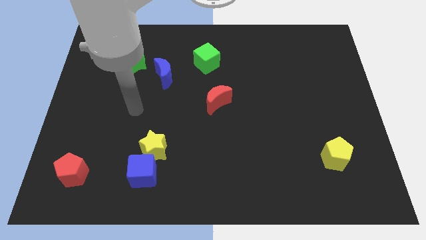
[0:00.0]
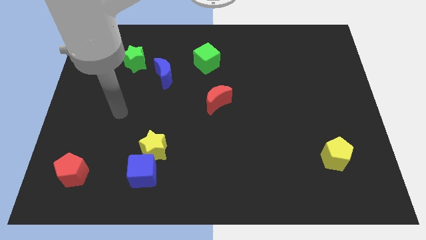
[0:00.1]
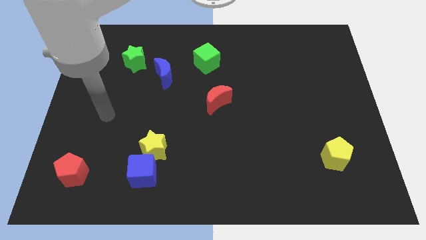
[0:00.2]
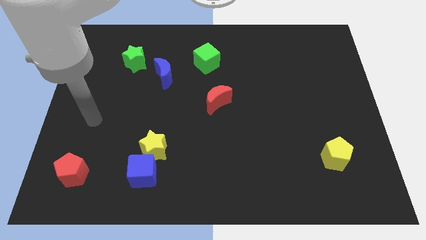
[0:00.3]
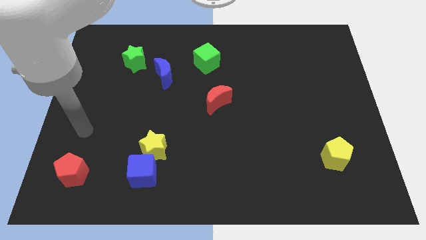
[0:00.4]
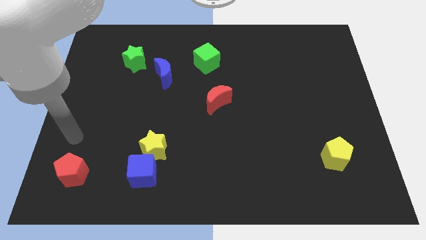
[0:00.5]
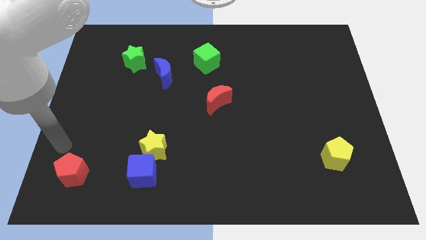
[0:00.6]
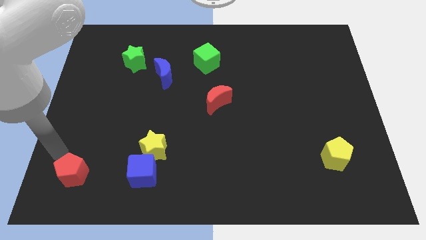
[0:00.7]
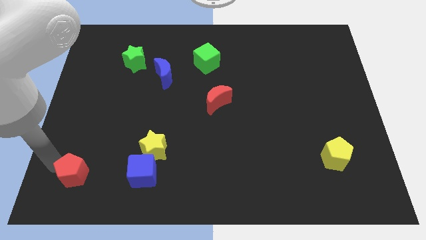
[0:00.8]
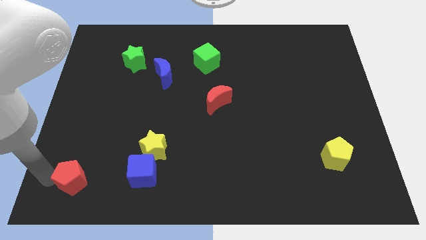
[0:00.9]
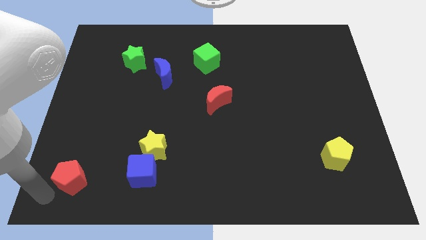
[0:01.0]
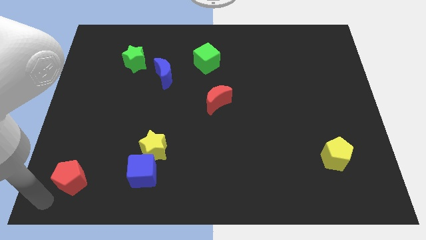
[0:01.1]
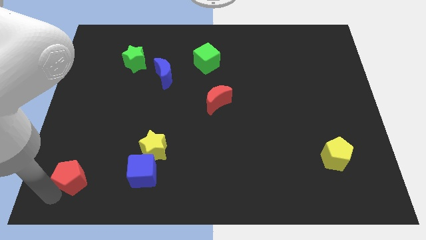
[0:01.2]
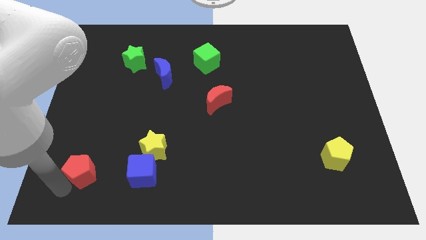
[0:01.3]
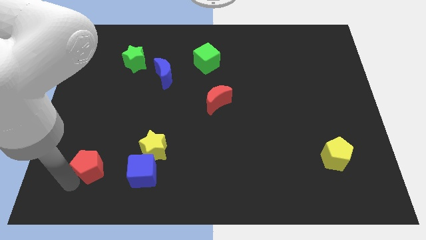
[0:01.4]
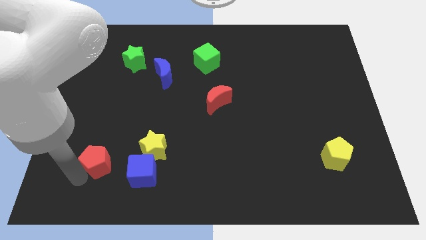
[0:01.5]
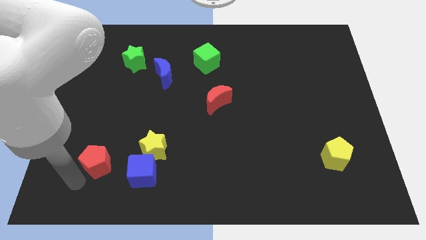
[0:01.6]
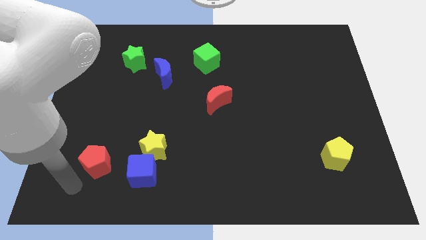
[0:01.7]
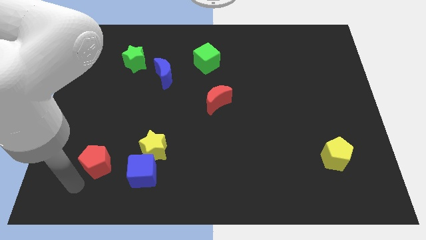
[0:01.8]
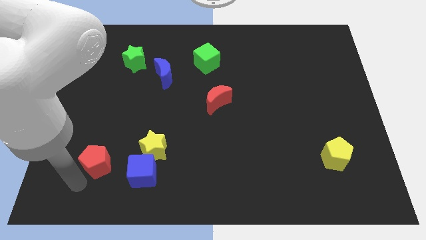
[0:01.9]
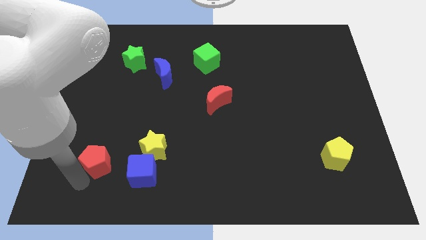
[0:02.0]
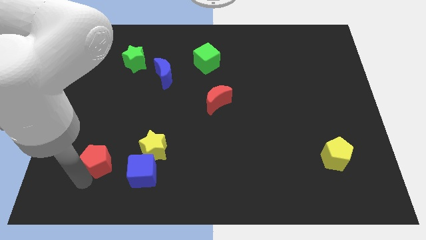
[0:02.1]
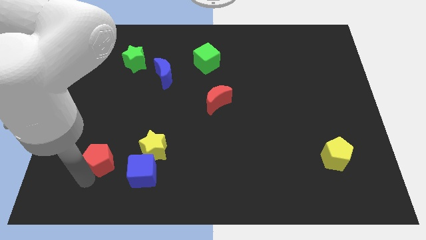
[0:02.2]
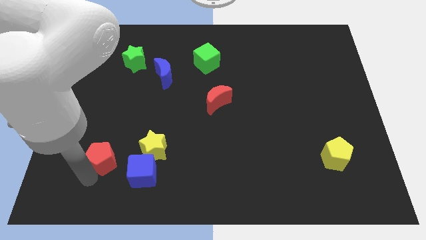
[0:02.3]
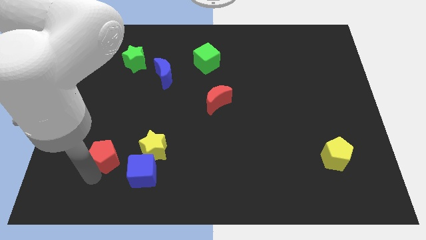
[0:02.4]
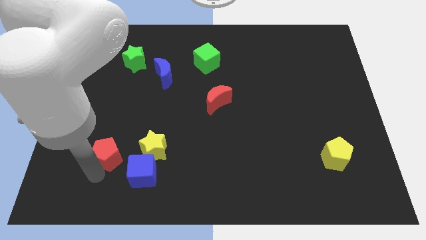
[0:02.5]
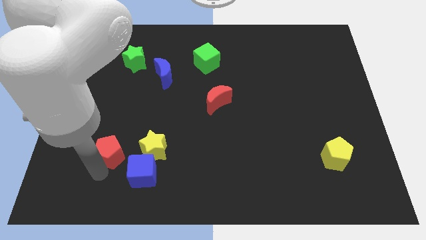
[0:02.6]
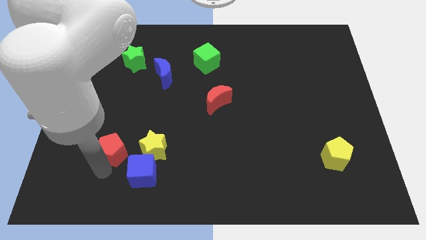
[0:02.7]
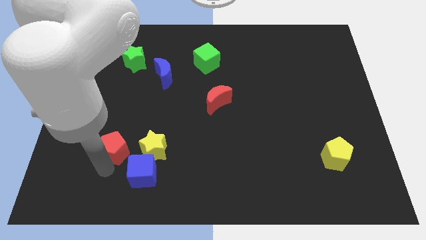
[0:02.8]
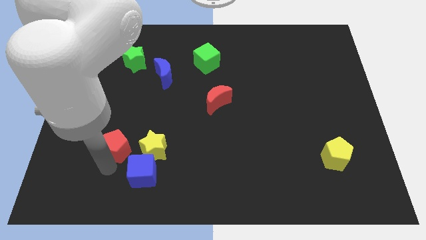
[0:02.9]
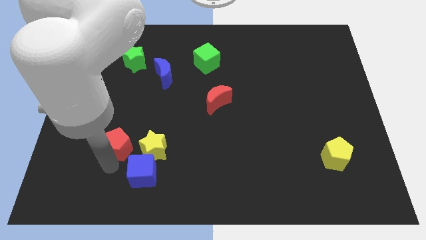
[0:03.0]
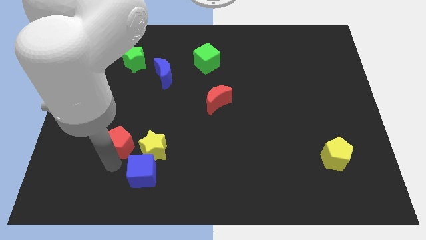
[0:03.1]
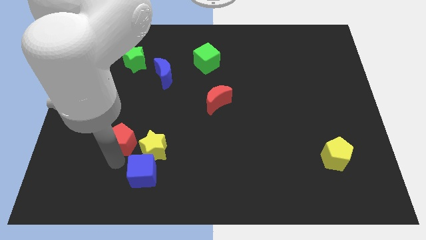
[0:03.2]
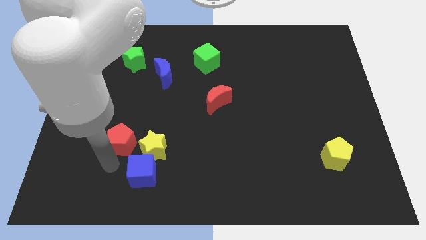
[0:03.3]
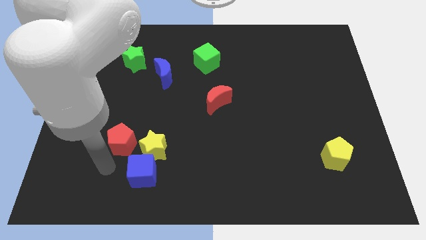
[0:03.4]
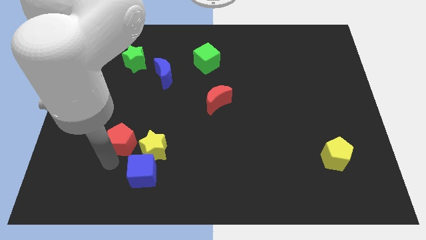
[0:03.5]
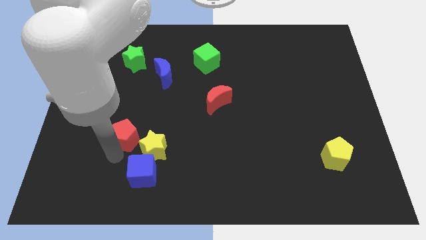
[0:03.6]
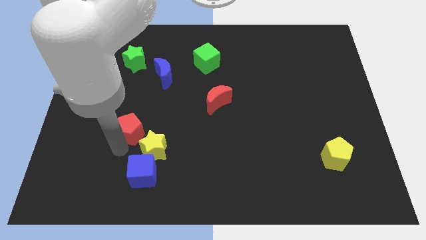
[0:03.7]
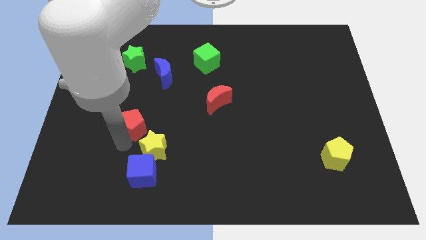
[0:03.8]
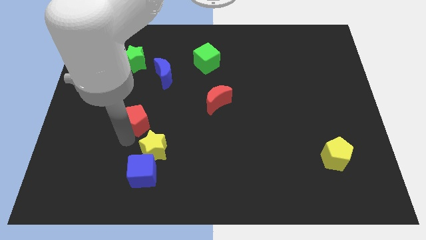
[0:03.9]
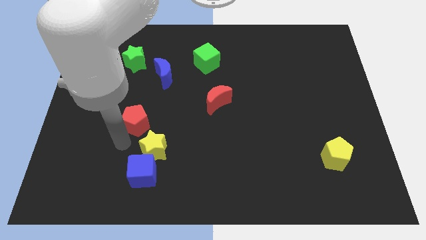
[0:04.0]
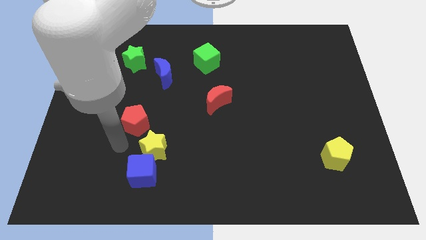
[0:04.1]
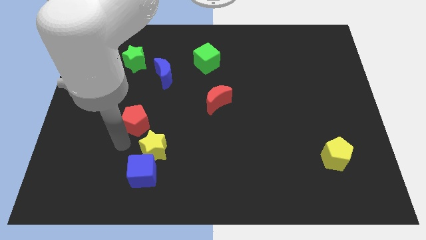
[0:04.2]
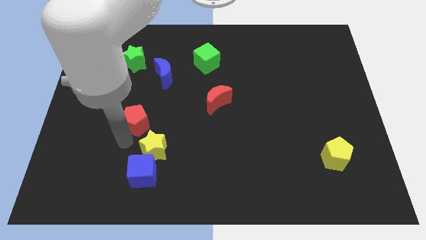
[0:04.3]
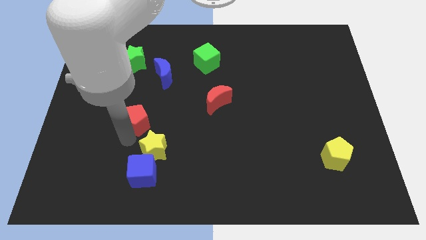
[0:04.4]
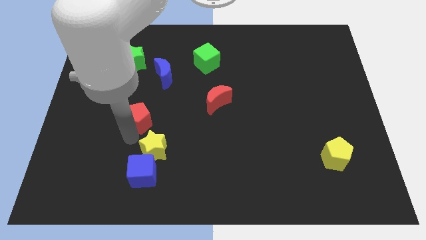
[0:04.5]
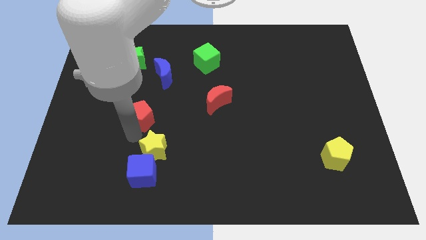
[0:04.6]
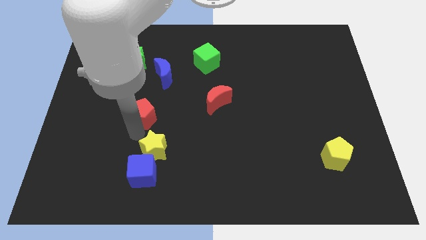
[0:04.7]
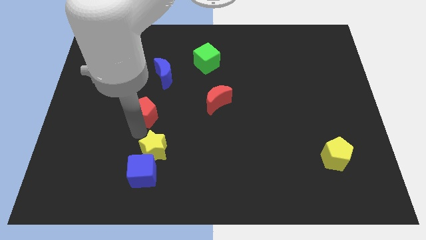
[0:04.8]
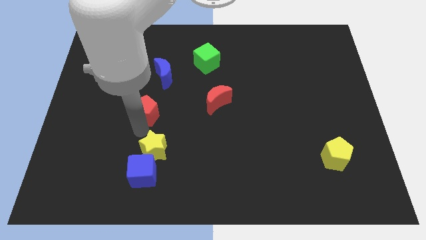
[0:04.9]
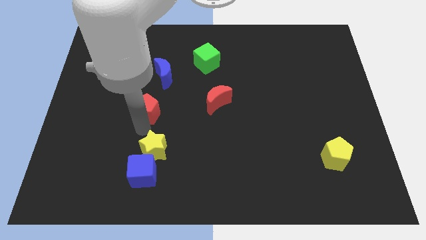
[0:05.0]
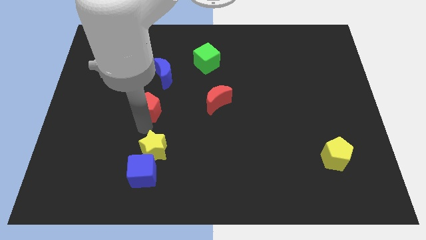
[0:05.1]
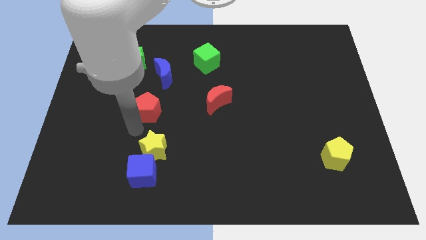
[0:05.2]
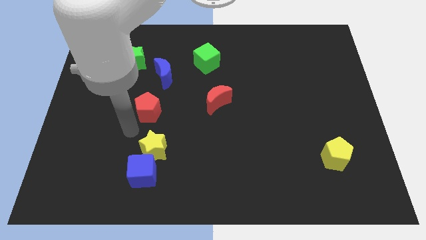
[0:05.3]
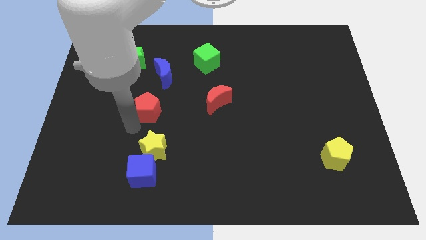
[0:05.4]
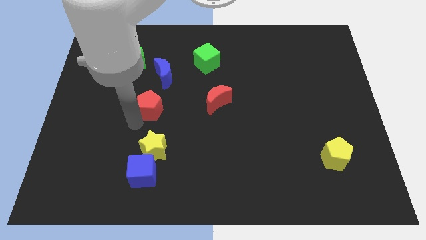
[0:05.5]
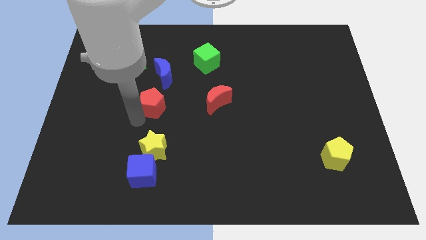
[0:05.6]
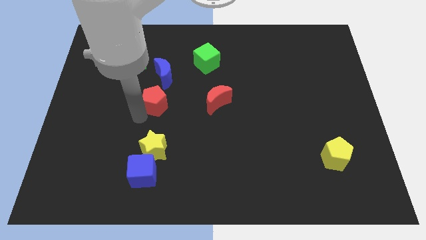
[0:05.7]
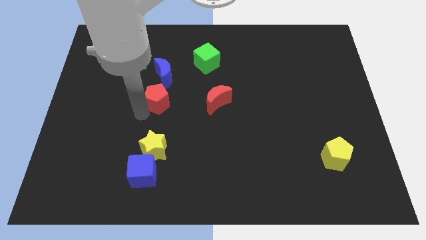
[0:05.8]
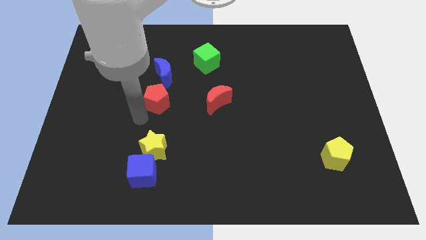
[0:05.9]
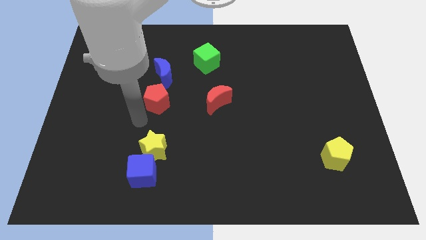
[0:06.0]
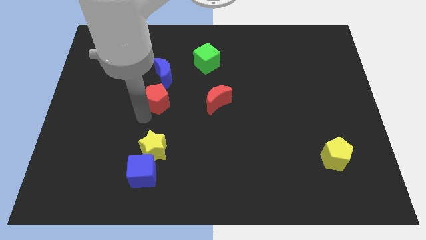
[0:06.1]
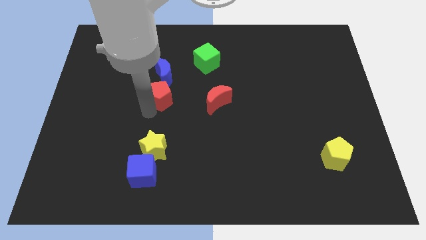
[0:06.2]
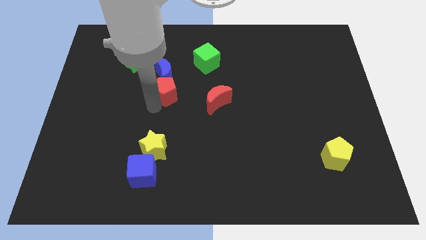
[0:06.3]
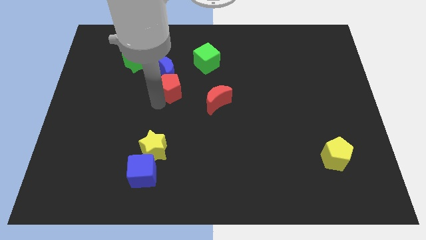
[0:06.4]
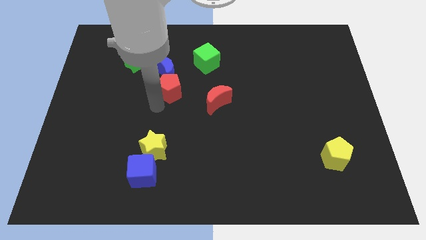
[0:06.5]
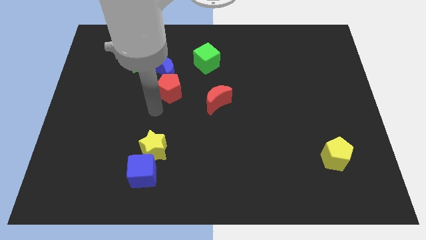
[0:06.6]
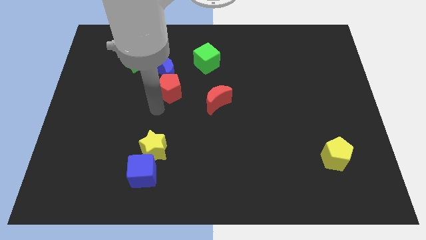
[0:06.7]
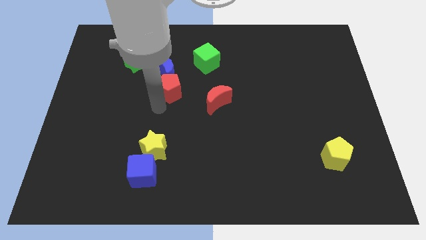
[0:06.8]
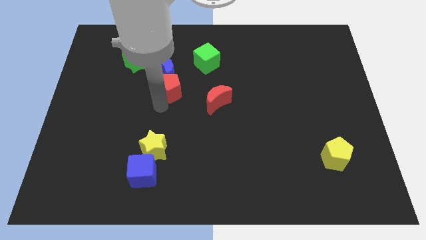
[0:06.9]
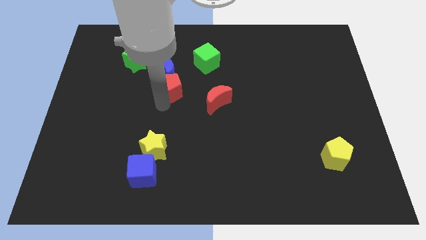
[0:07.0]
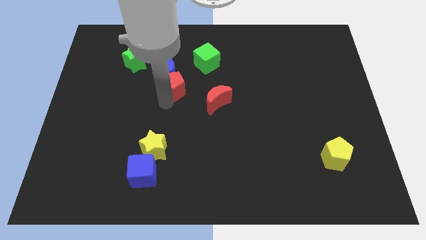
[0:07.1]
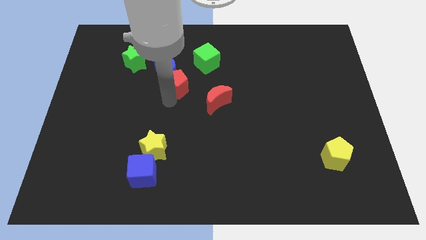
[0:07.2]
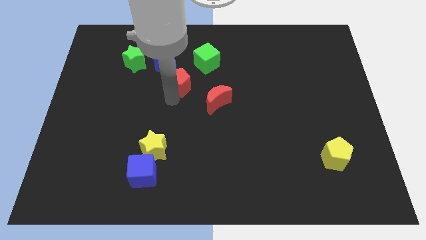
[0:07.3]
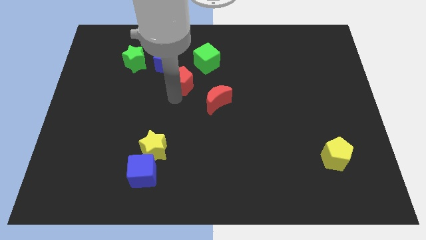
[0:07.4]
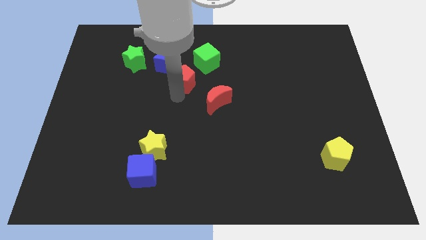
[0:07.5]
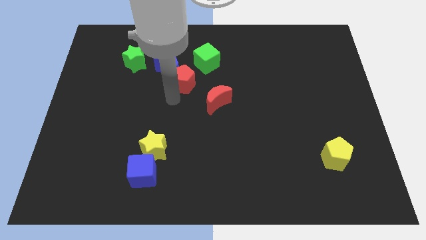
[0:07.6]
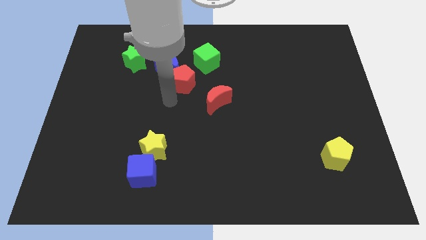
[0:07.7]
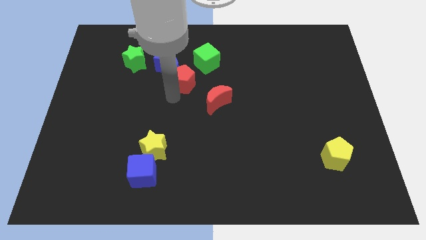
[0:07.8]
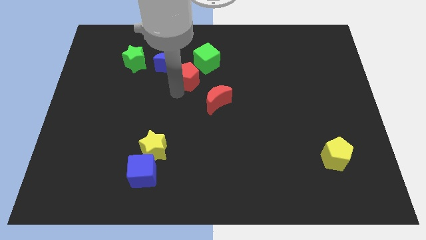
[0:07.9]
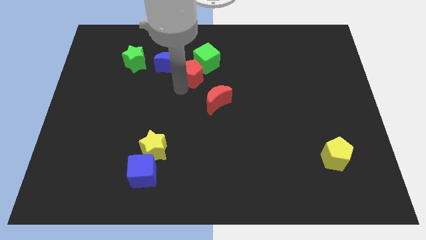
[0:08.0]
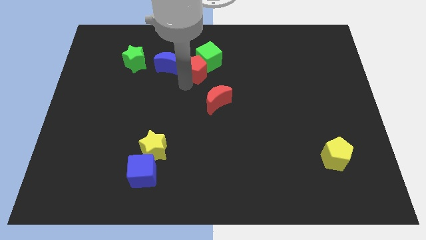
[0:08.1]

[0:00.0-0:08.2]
slide the red pentagon to the green cube
